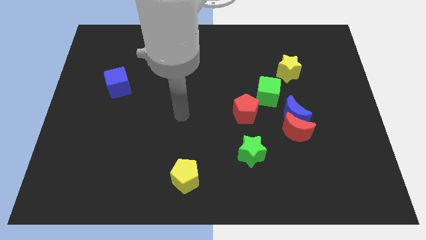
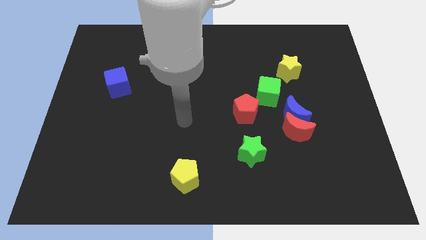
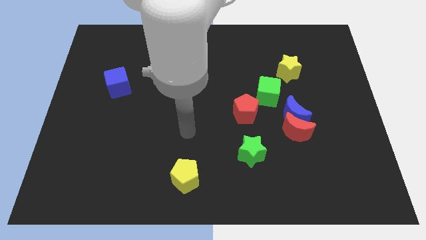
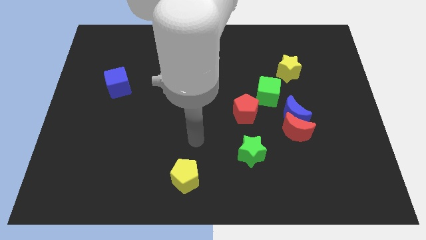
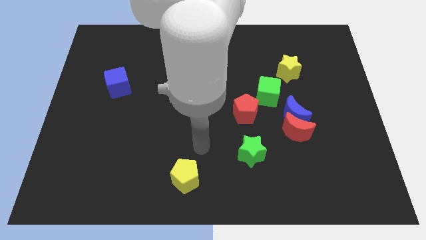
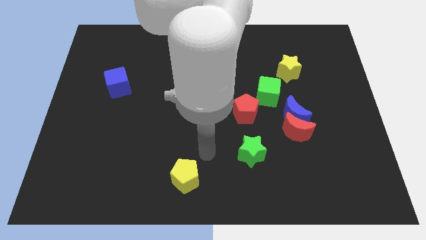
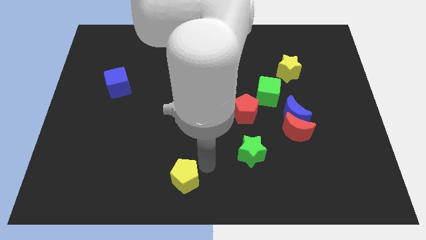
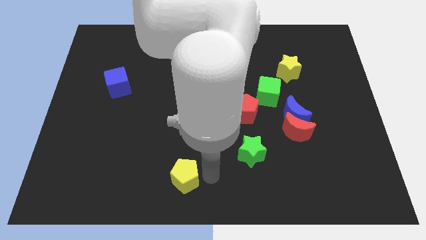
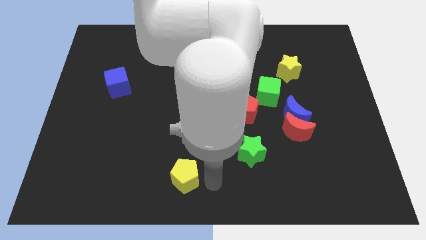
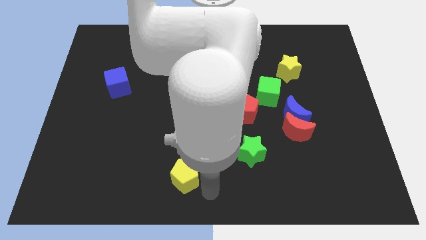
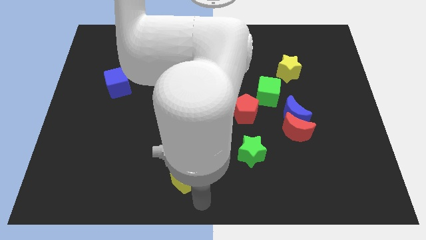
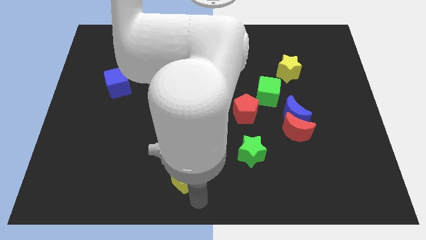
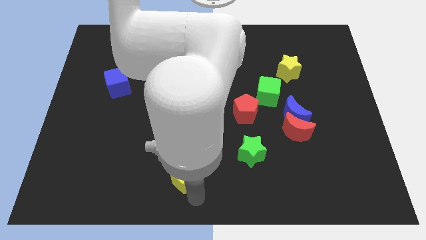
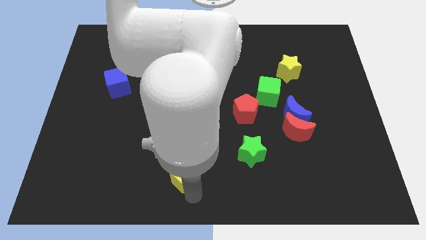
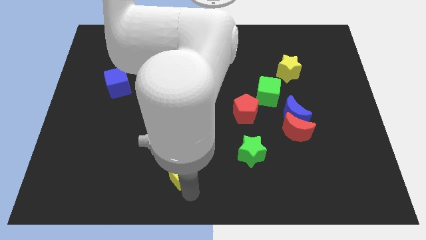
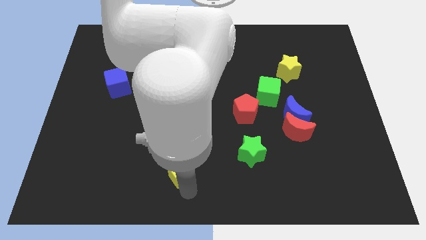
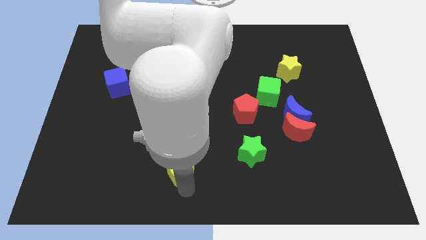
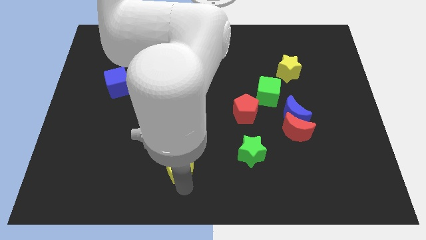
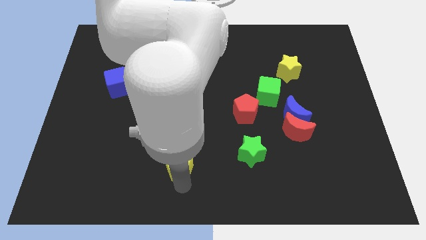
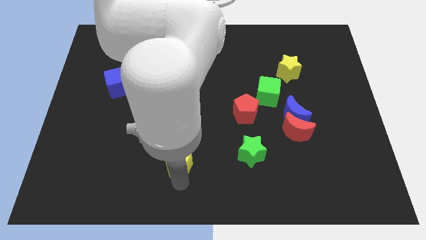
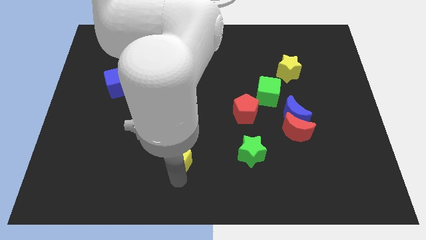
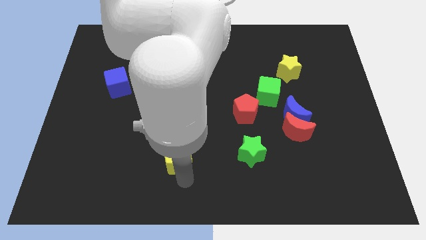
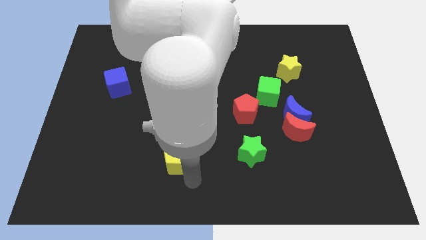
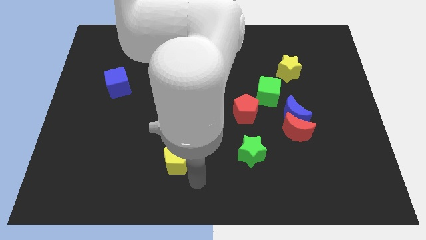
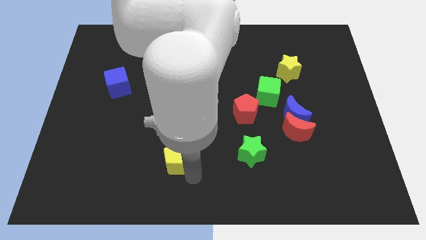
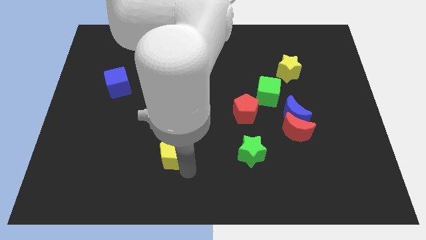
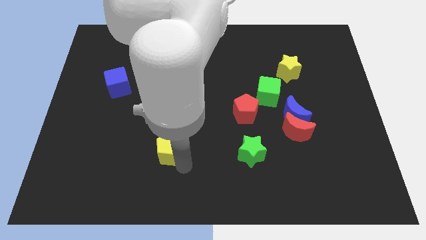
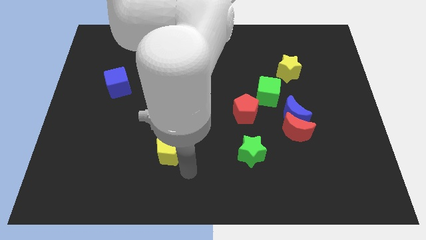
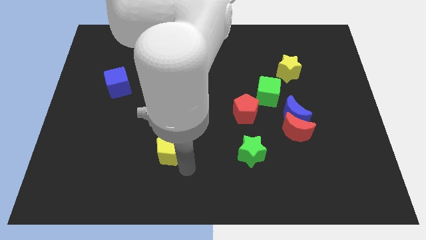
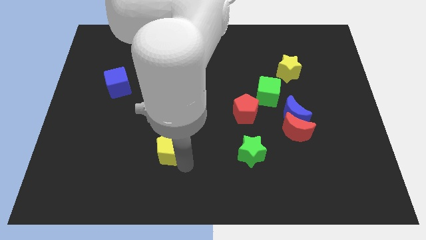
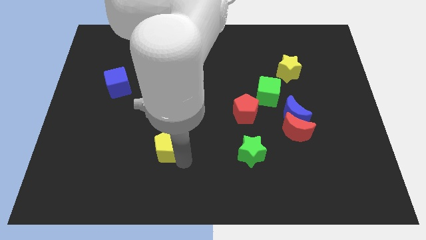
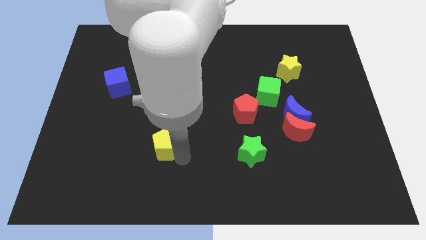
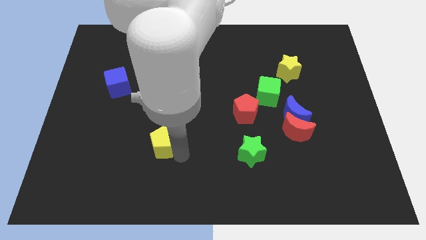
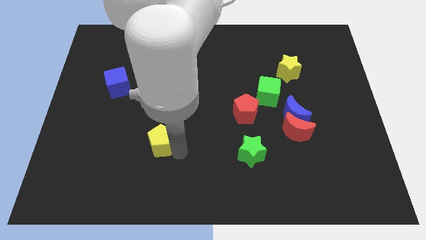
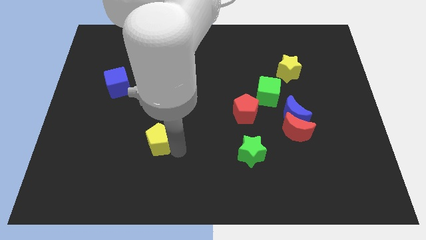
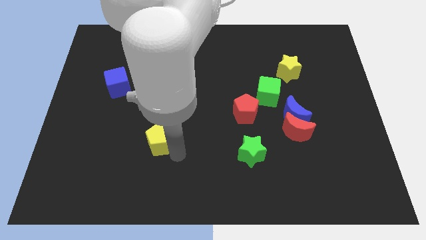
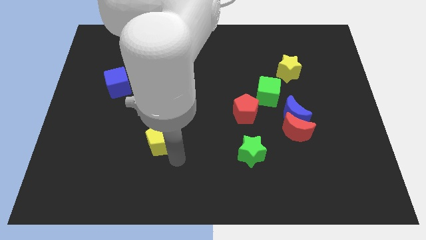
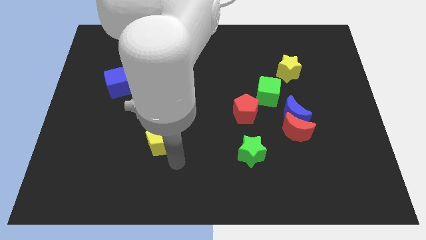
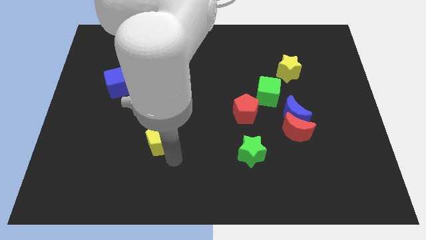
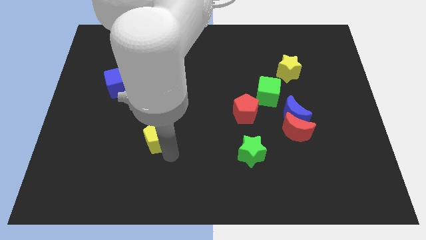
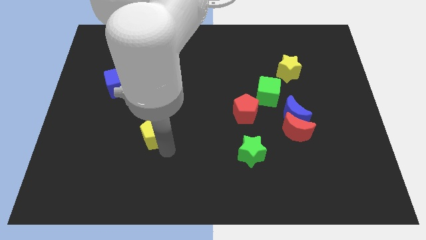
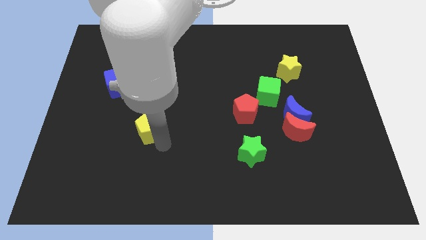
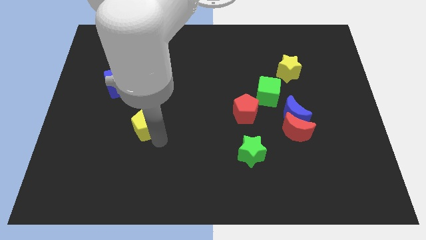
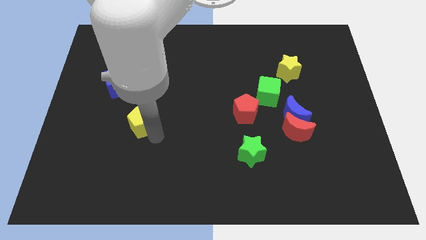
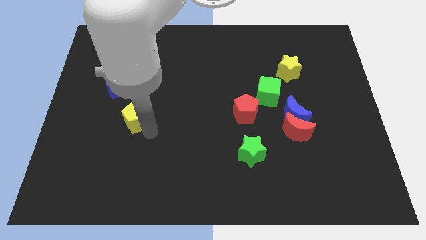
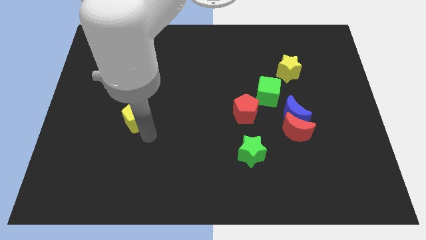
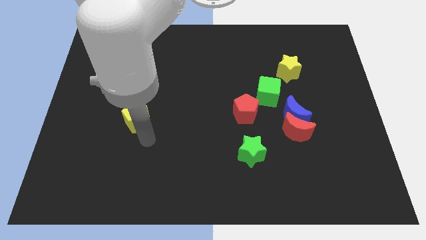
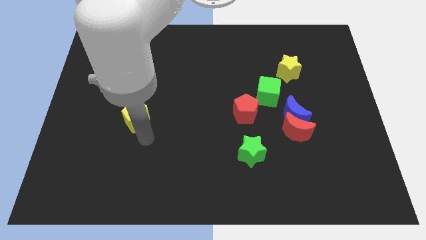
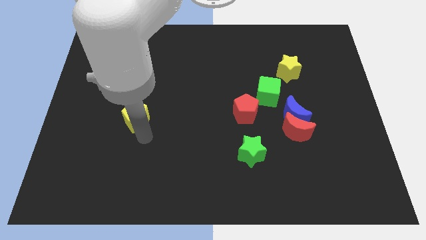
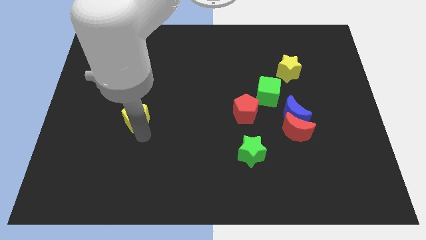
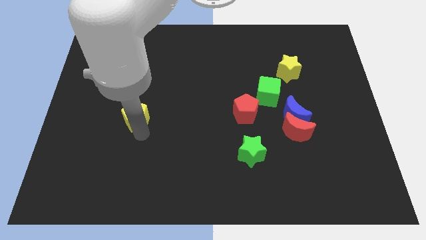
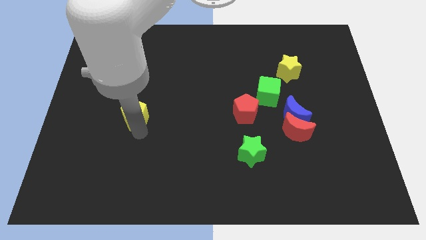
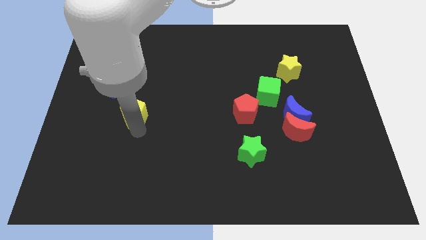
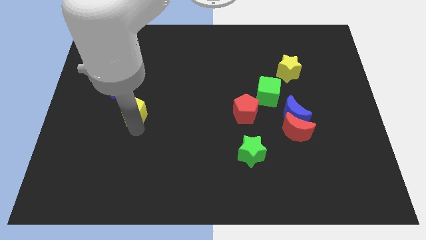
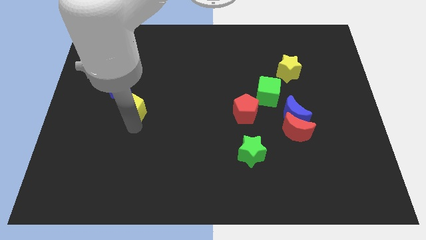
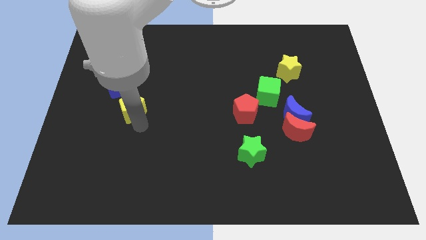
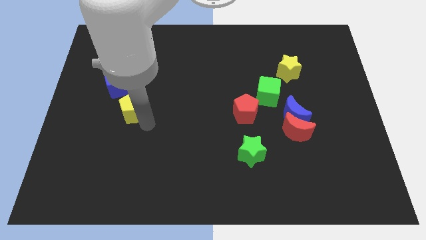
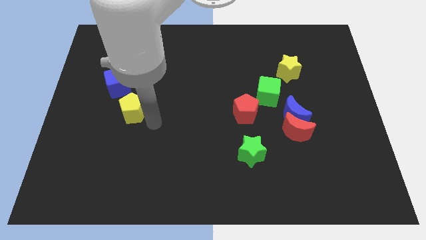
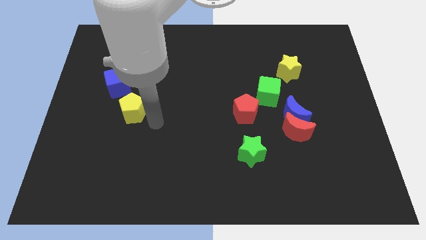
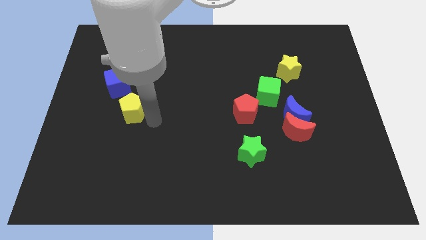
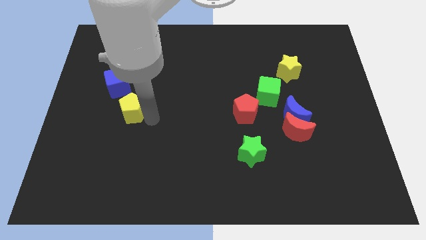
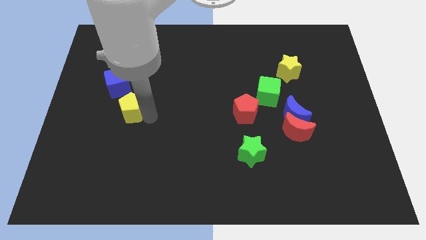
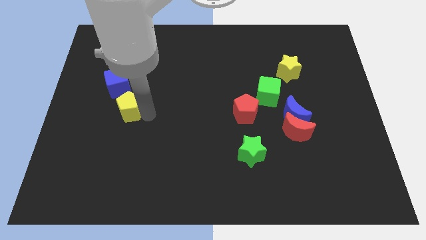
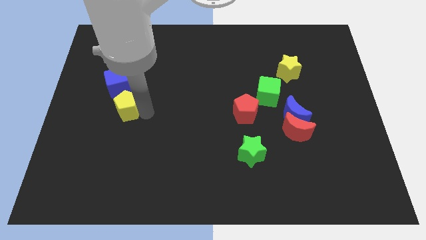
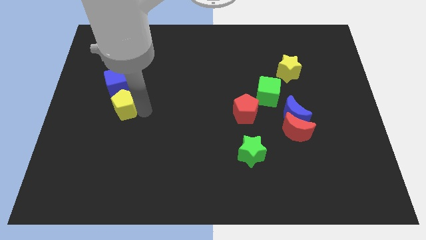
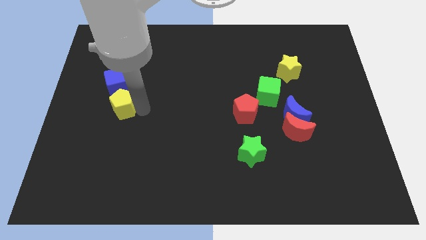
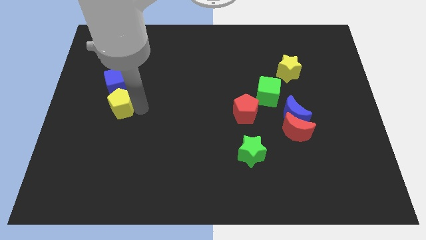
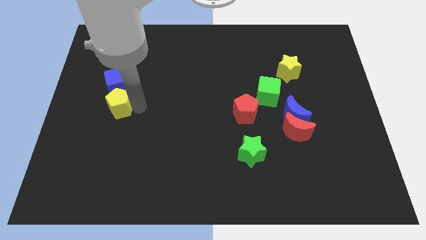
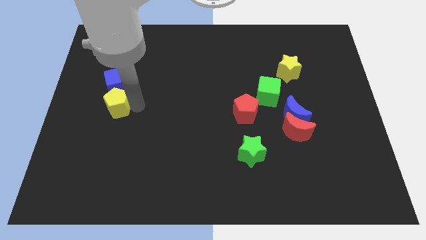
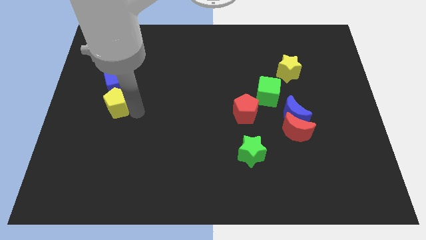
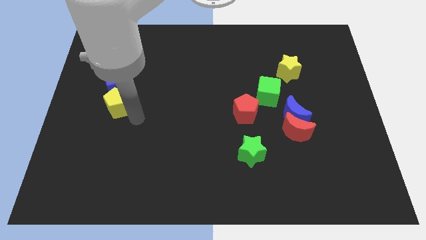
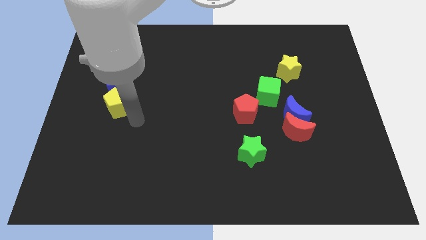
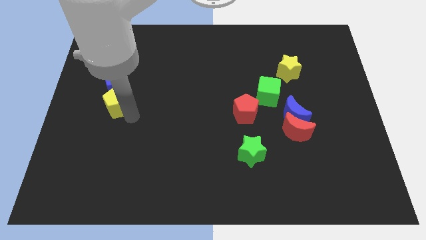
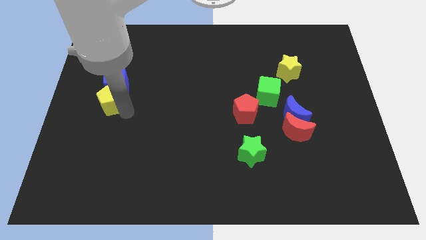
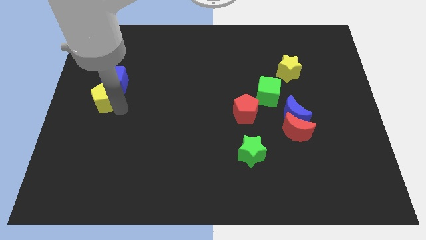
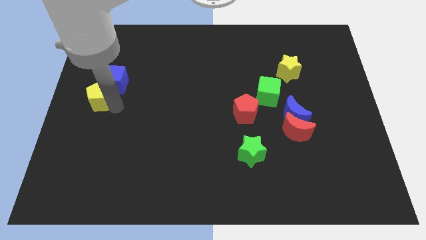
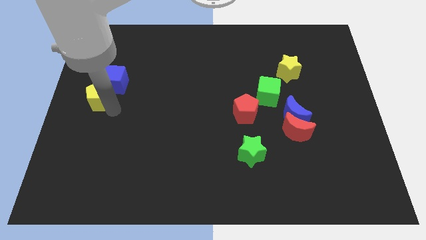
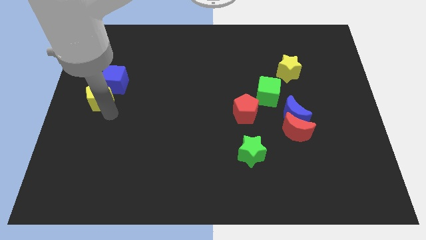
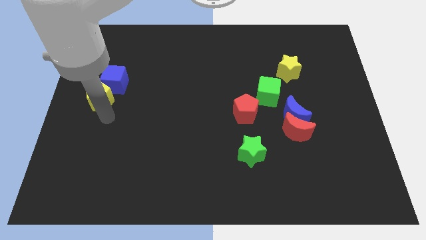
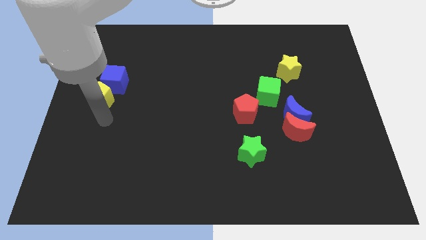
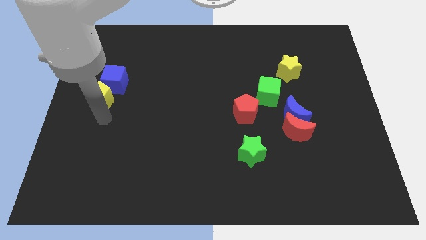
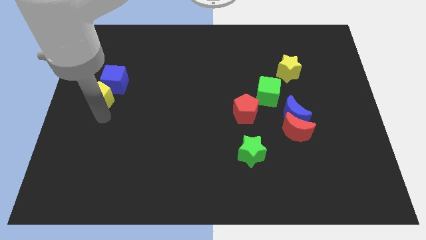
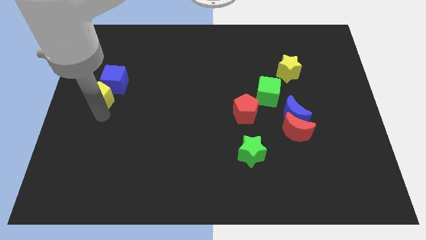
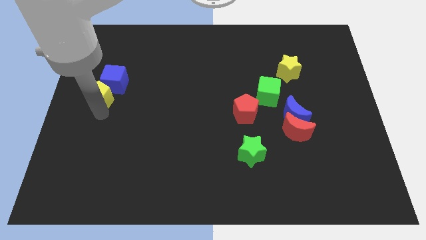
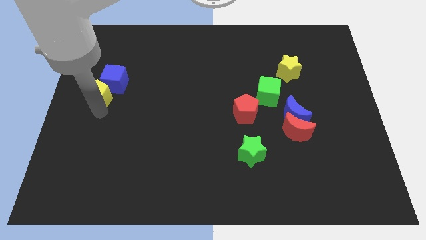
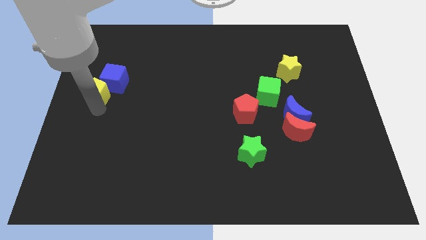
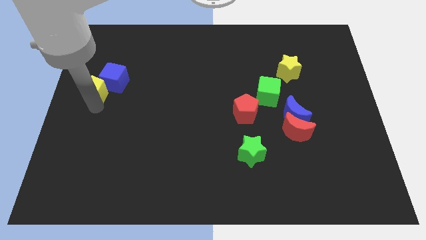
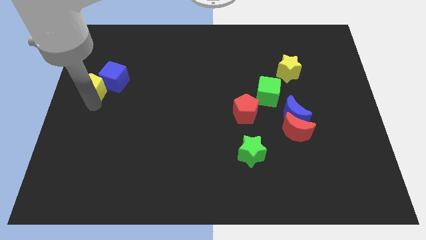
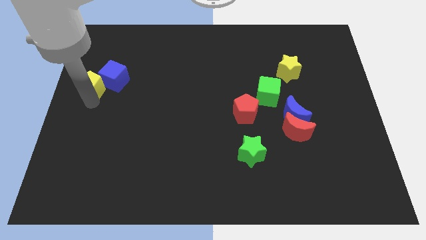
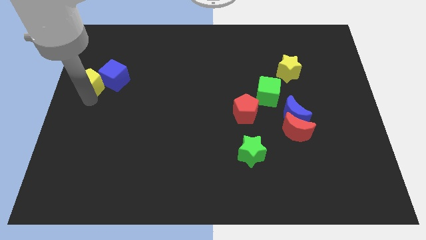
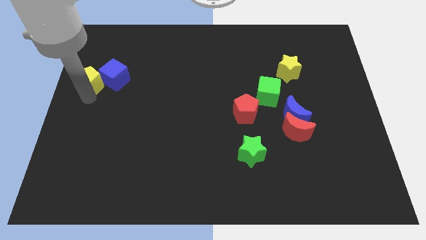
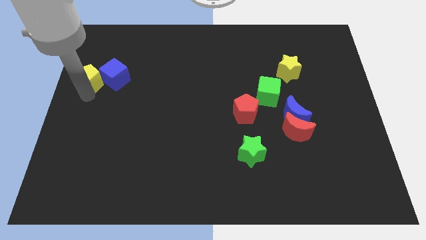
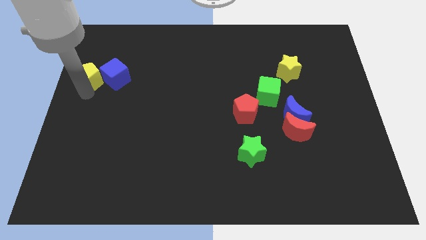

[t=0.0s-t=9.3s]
move the yellow pentagon to the top left of the blue cube
